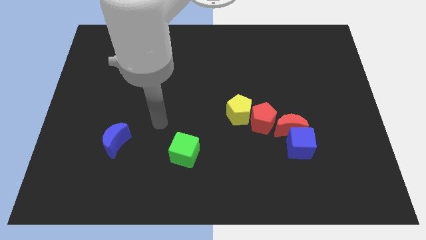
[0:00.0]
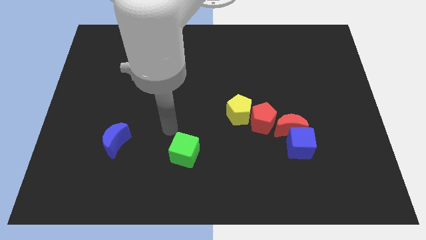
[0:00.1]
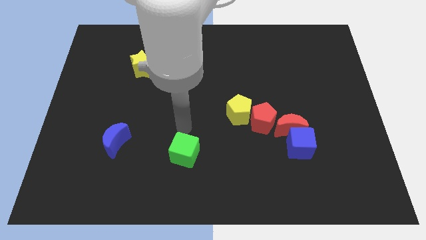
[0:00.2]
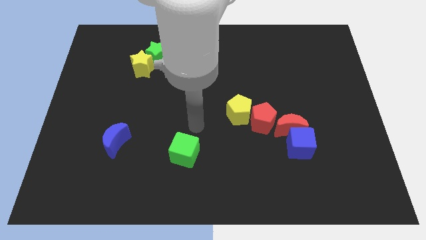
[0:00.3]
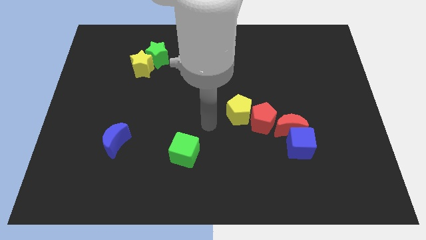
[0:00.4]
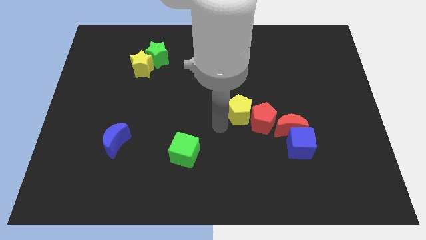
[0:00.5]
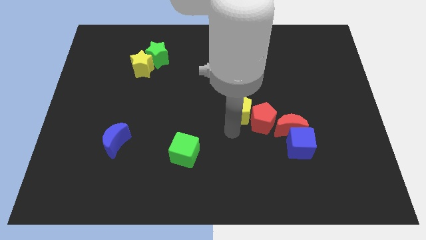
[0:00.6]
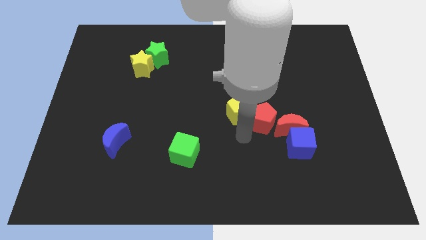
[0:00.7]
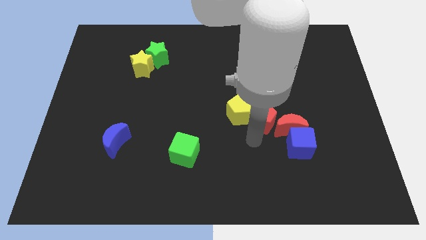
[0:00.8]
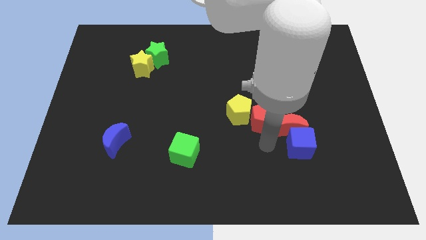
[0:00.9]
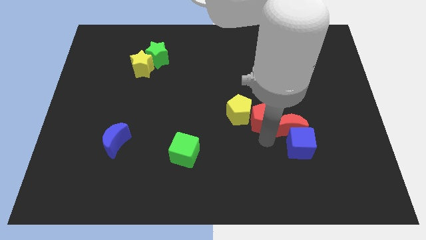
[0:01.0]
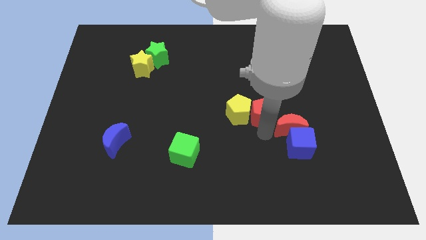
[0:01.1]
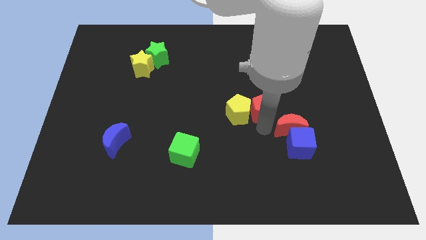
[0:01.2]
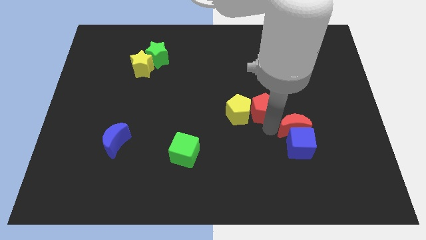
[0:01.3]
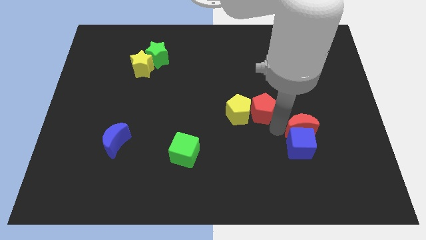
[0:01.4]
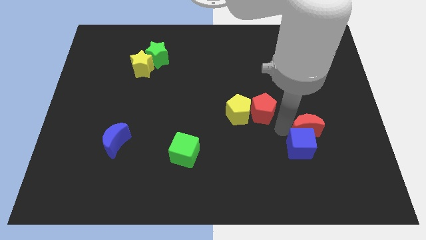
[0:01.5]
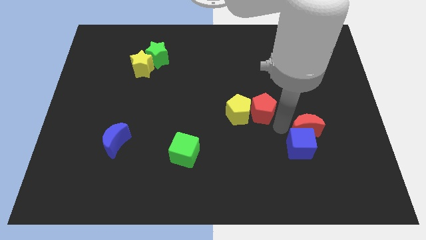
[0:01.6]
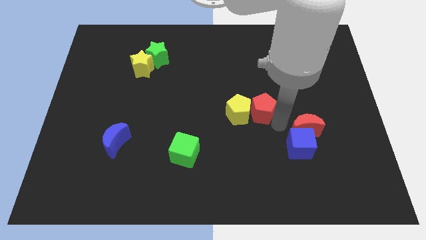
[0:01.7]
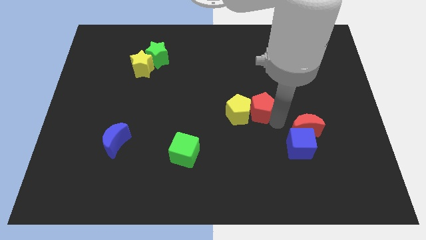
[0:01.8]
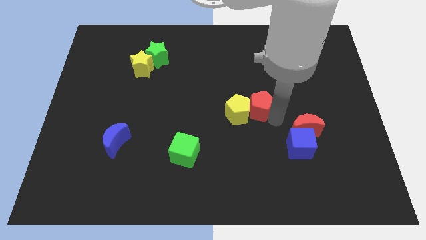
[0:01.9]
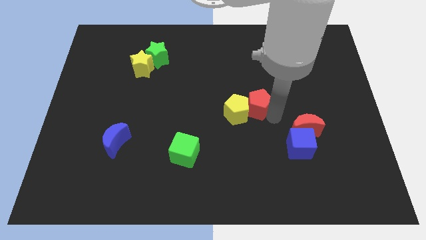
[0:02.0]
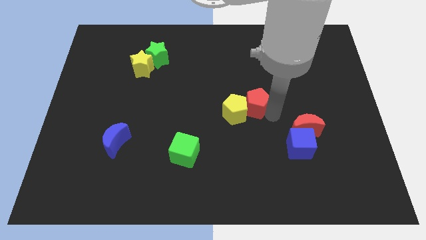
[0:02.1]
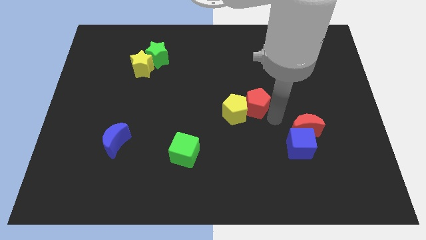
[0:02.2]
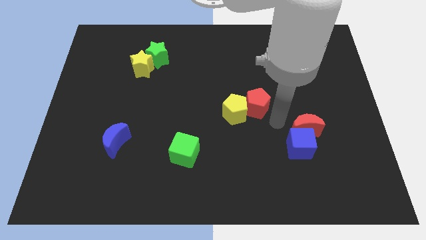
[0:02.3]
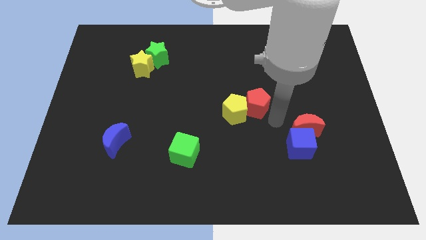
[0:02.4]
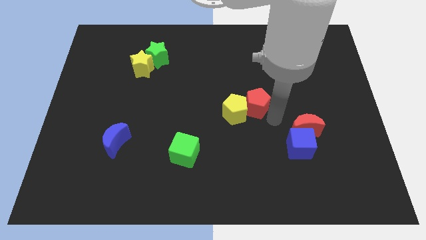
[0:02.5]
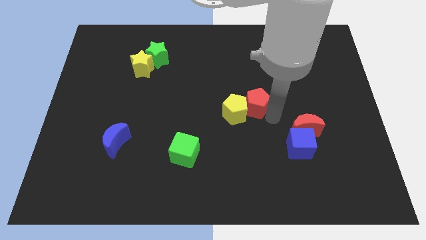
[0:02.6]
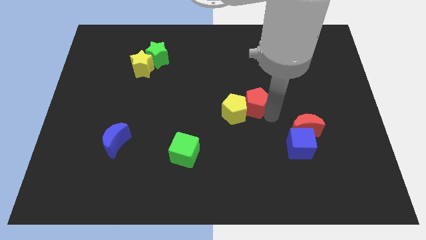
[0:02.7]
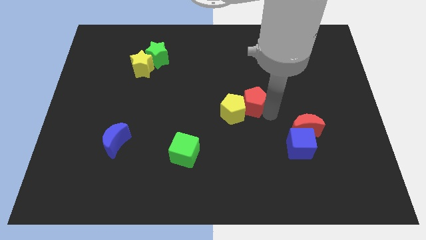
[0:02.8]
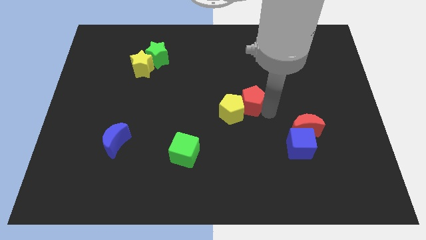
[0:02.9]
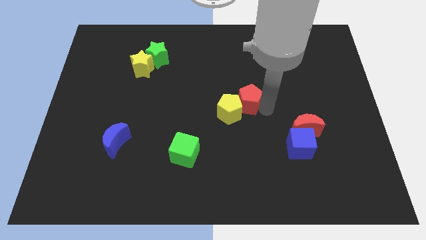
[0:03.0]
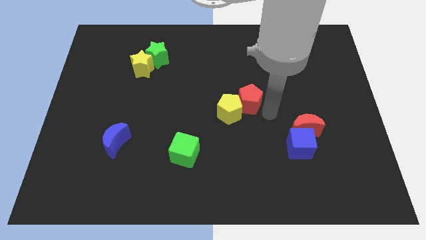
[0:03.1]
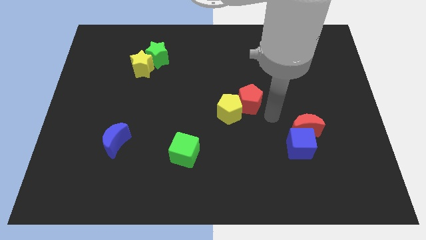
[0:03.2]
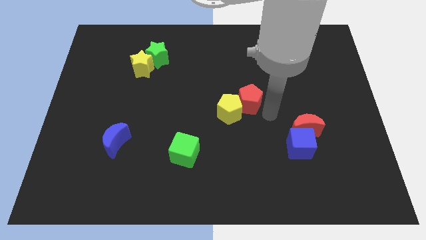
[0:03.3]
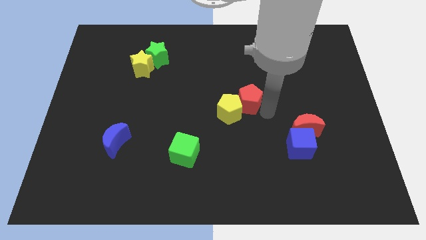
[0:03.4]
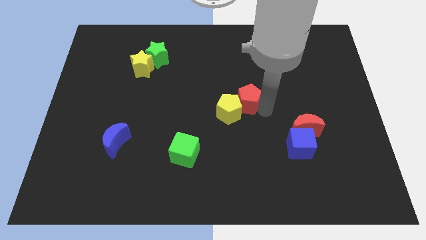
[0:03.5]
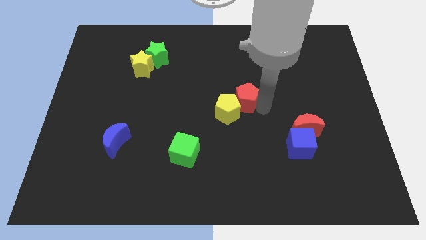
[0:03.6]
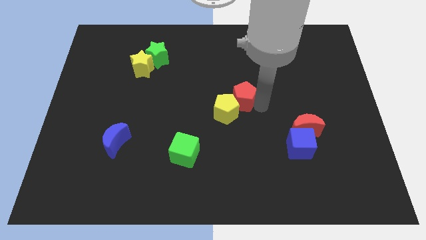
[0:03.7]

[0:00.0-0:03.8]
slide the red pentagon a little up and left diagonally

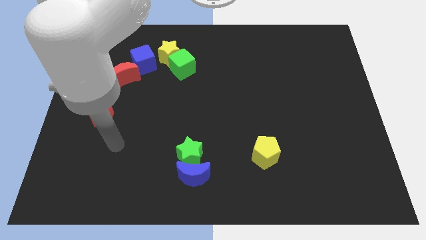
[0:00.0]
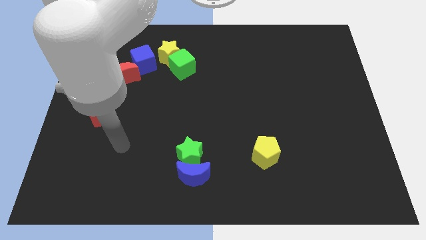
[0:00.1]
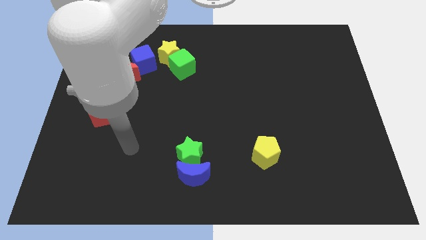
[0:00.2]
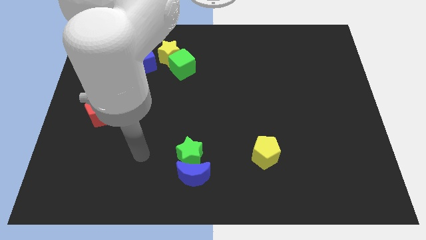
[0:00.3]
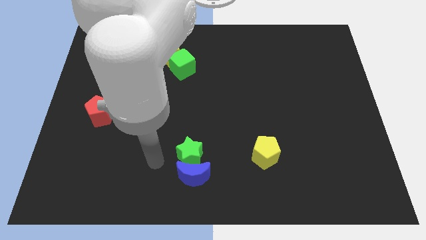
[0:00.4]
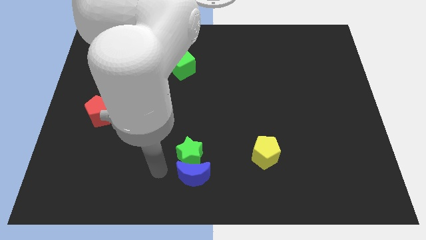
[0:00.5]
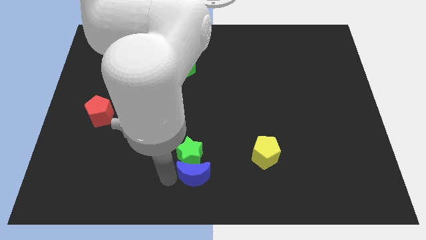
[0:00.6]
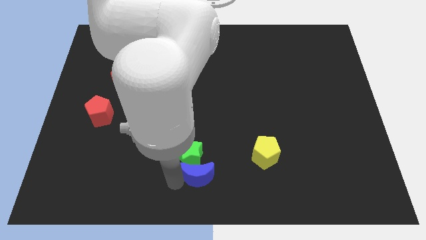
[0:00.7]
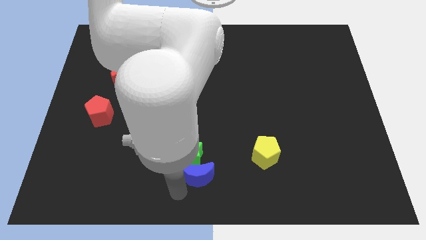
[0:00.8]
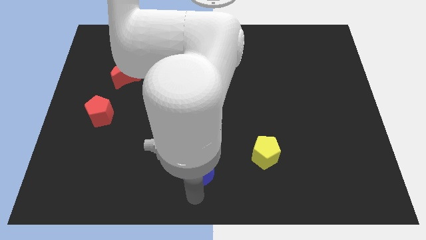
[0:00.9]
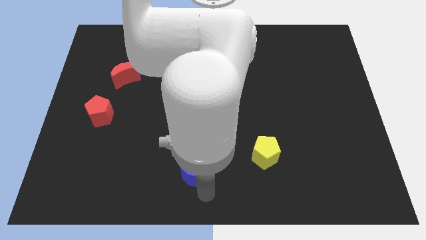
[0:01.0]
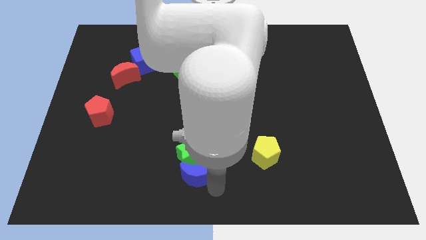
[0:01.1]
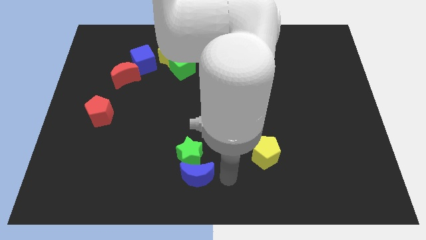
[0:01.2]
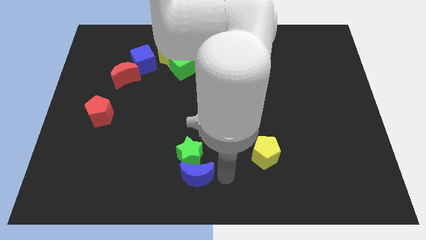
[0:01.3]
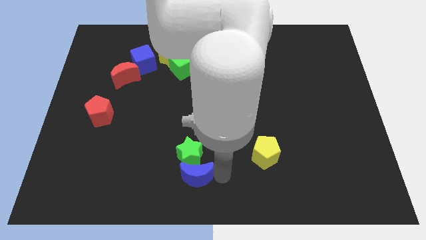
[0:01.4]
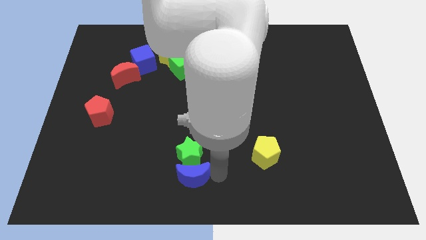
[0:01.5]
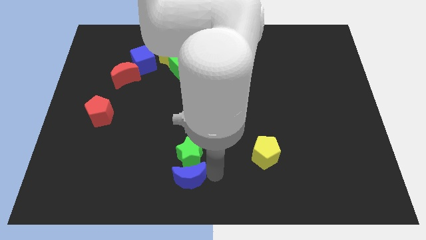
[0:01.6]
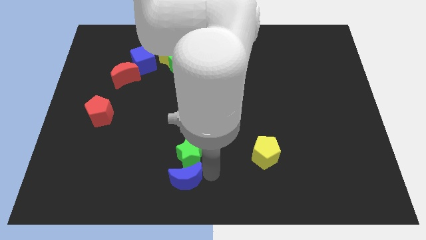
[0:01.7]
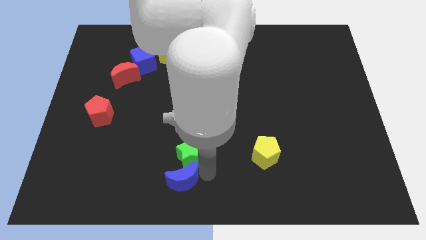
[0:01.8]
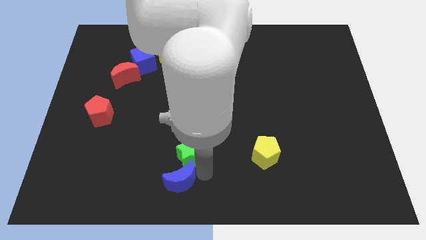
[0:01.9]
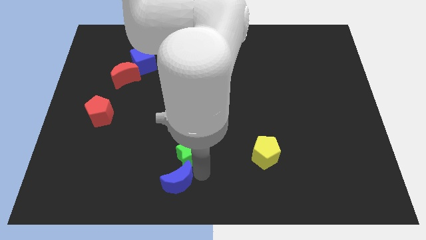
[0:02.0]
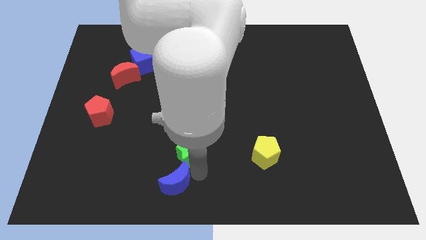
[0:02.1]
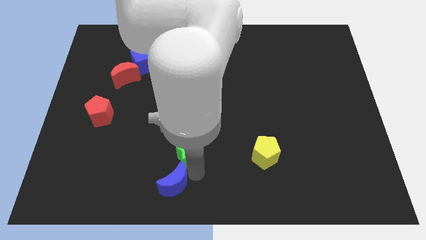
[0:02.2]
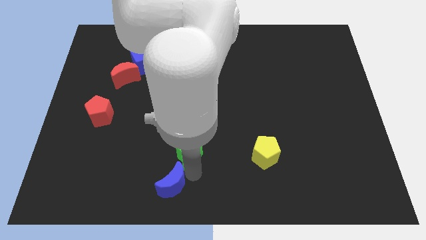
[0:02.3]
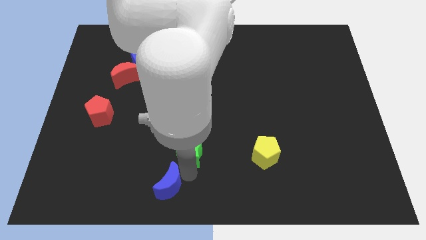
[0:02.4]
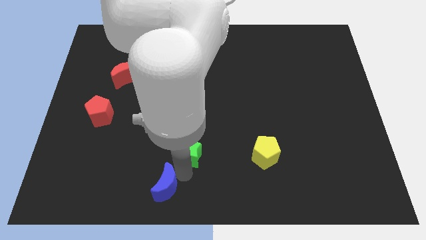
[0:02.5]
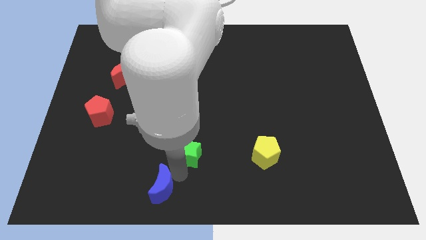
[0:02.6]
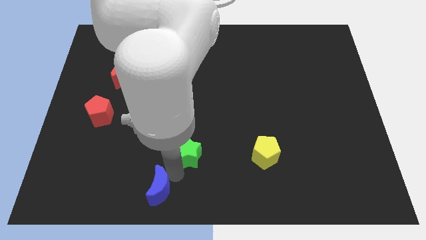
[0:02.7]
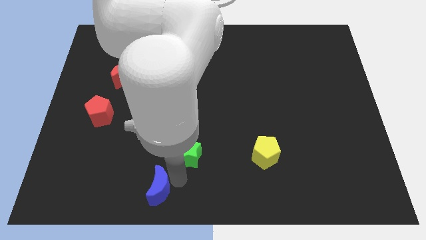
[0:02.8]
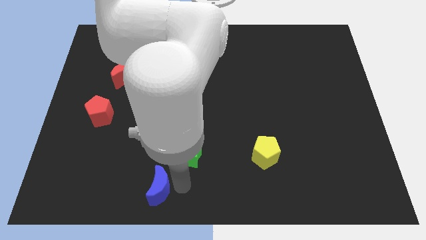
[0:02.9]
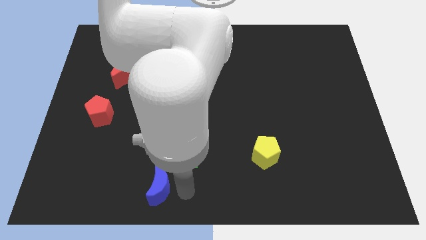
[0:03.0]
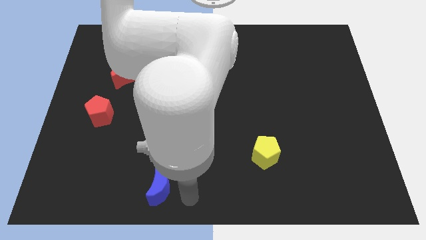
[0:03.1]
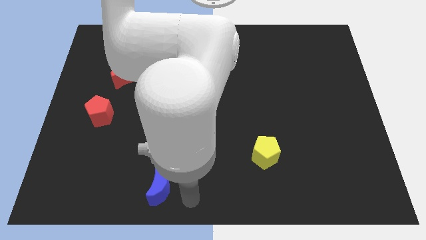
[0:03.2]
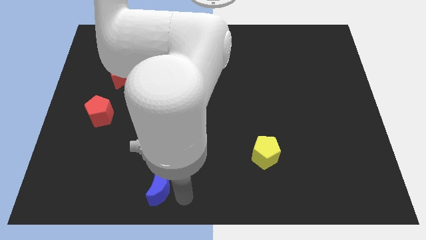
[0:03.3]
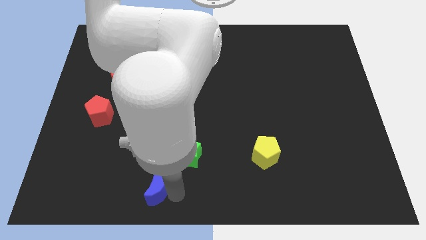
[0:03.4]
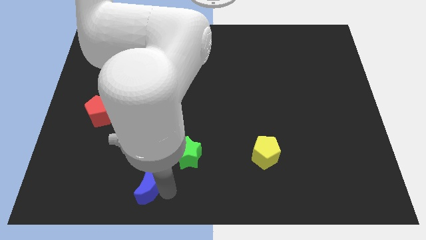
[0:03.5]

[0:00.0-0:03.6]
slightly push the blue moon left

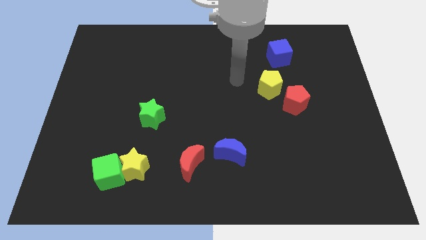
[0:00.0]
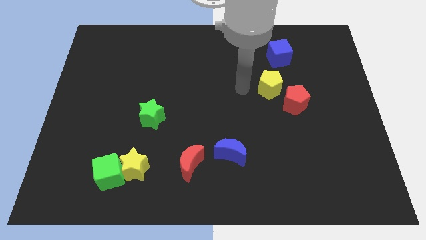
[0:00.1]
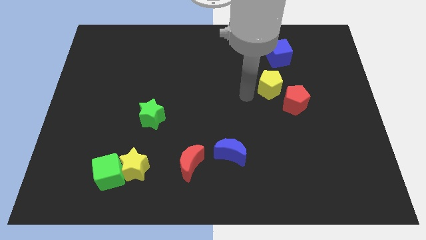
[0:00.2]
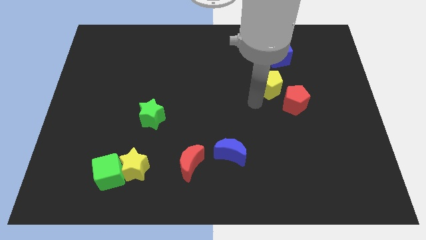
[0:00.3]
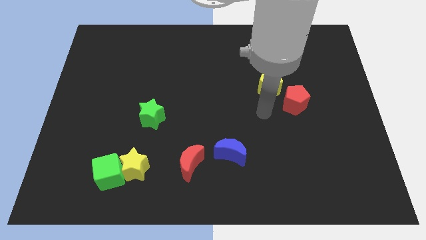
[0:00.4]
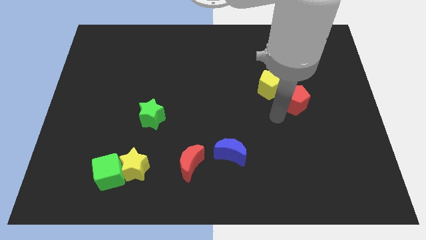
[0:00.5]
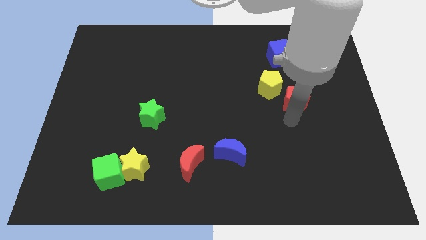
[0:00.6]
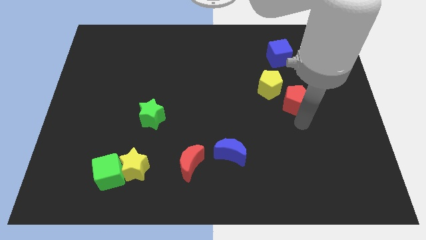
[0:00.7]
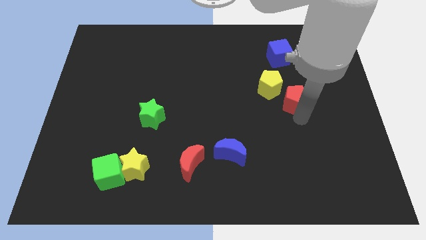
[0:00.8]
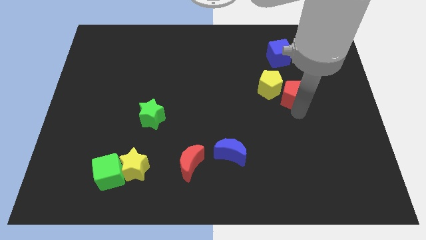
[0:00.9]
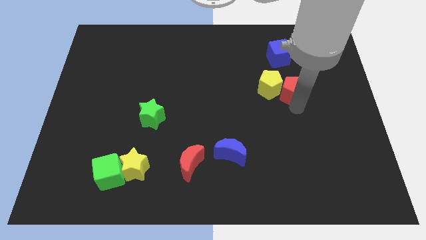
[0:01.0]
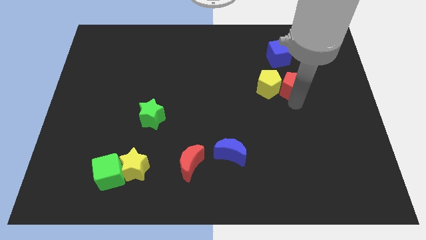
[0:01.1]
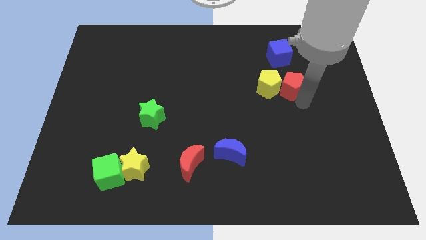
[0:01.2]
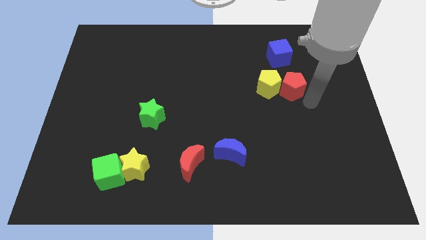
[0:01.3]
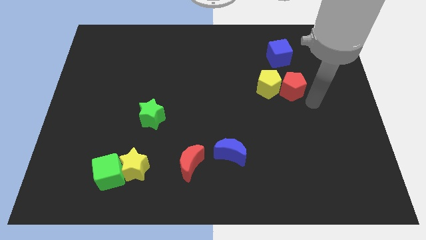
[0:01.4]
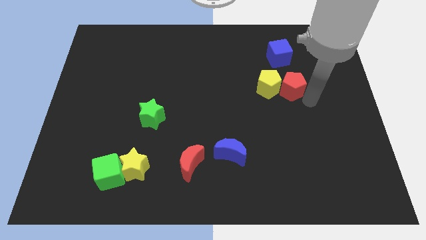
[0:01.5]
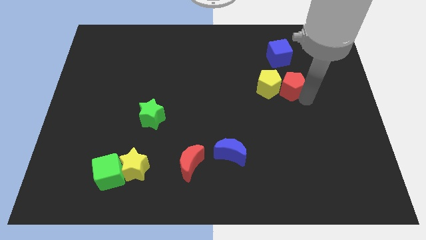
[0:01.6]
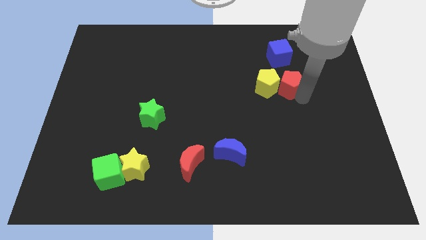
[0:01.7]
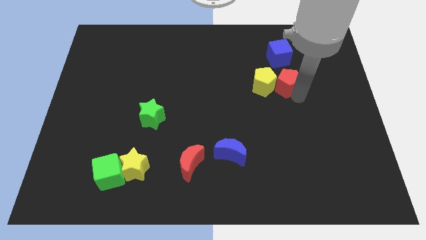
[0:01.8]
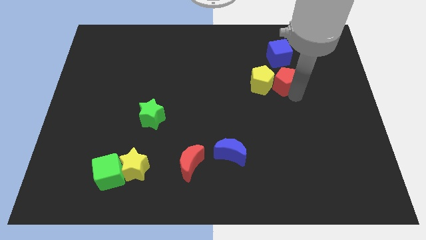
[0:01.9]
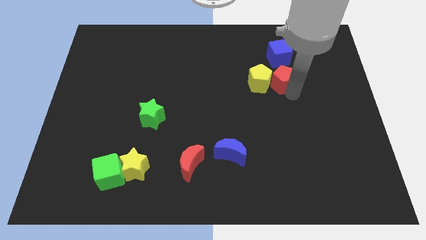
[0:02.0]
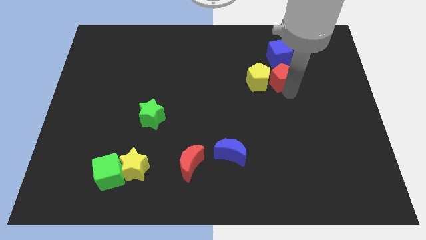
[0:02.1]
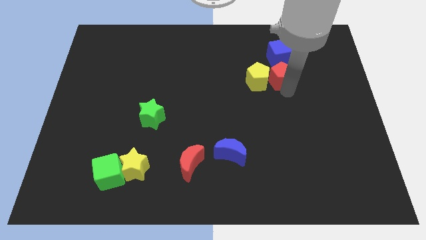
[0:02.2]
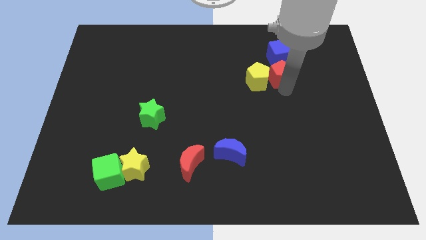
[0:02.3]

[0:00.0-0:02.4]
push the red pentagon upwards and to the left a little
